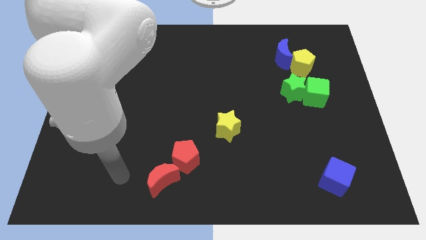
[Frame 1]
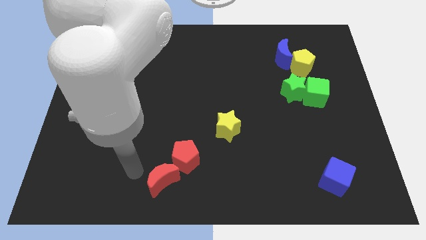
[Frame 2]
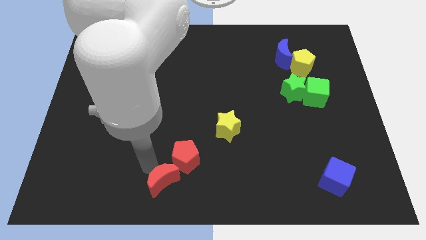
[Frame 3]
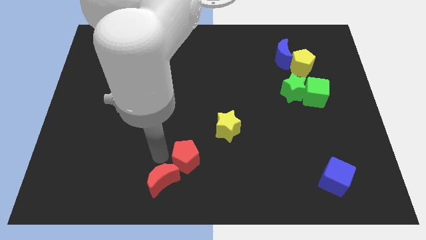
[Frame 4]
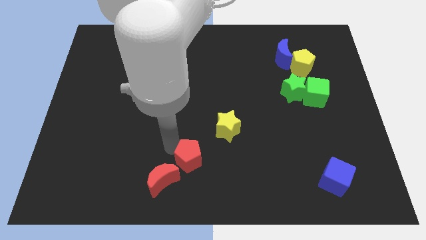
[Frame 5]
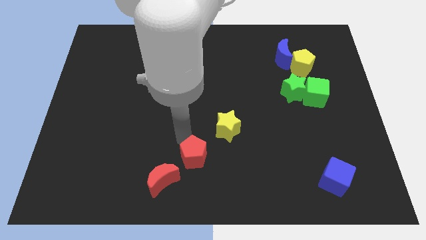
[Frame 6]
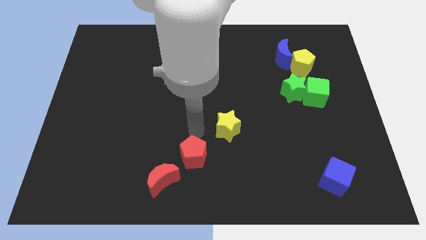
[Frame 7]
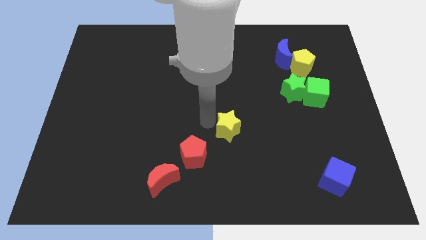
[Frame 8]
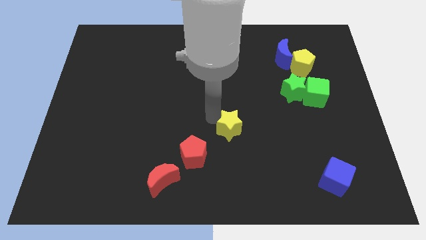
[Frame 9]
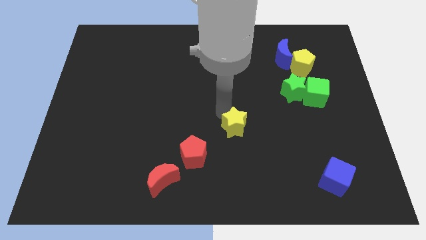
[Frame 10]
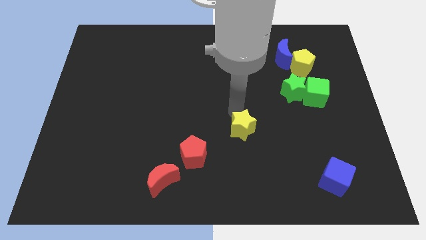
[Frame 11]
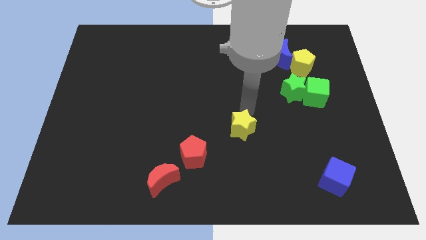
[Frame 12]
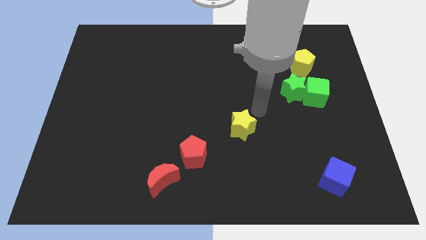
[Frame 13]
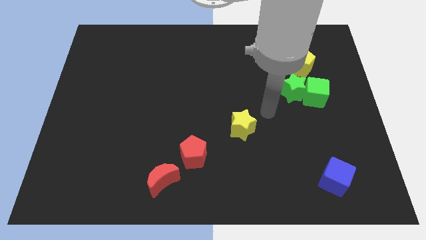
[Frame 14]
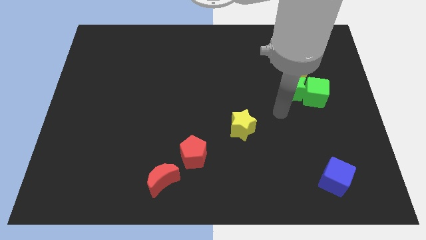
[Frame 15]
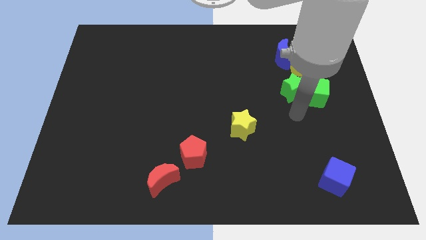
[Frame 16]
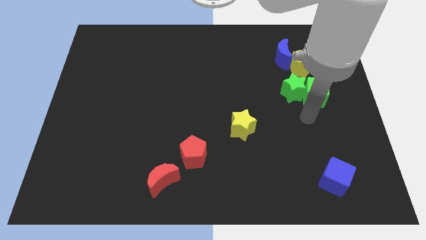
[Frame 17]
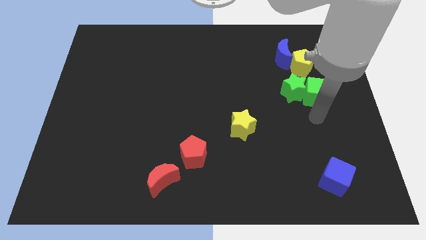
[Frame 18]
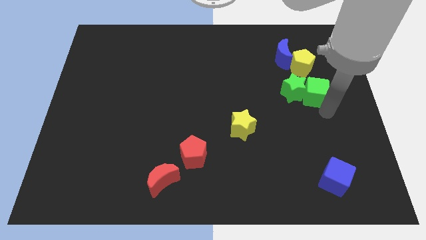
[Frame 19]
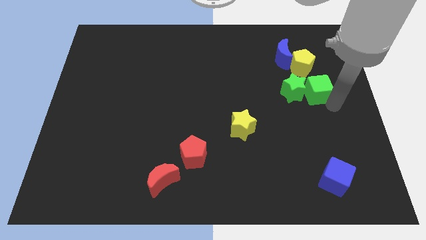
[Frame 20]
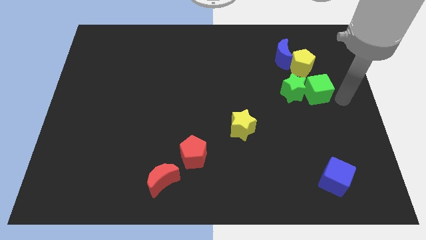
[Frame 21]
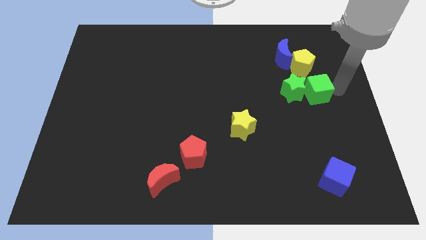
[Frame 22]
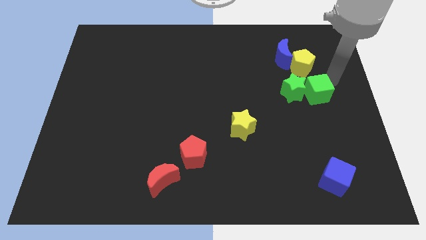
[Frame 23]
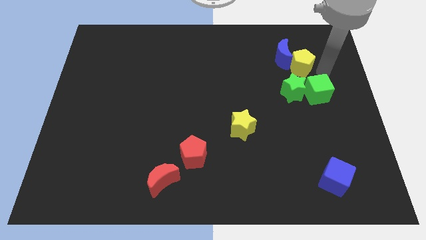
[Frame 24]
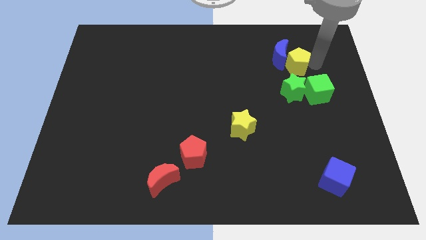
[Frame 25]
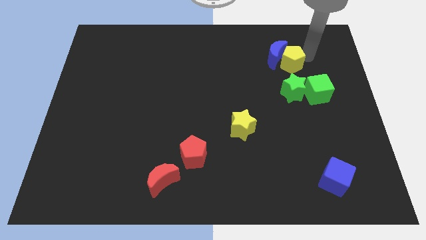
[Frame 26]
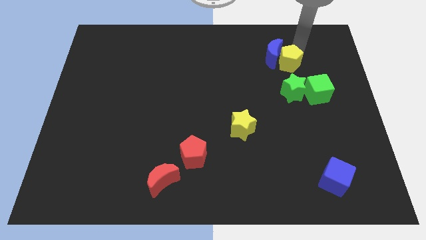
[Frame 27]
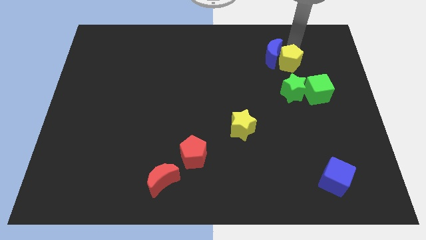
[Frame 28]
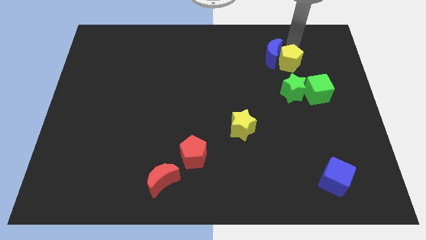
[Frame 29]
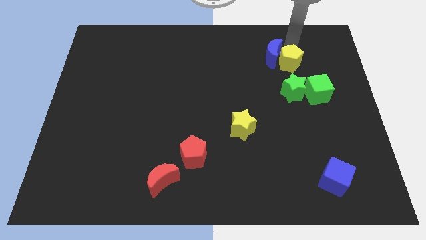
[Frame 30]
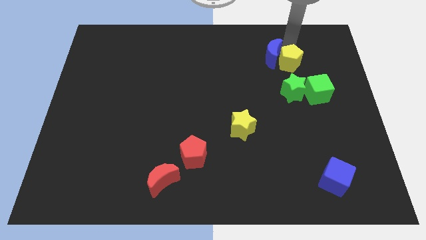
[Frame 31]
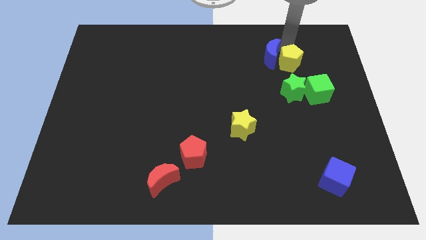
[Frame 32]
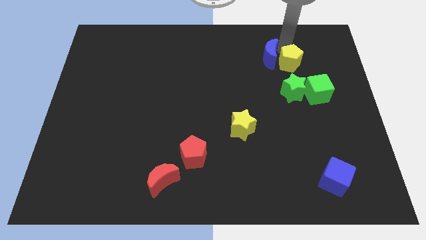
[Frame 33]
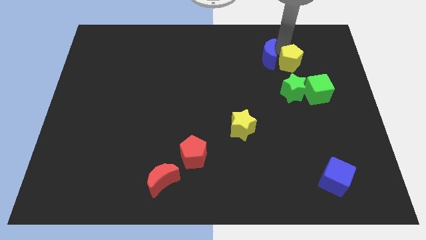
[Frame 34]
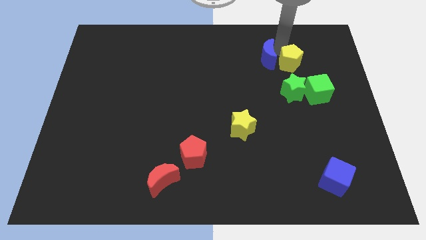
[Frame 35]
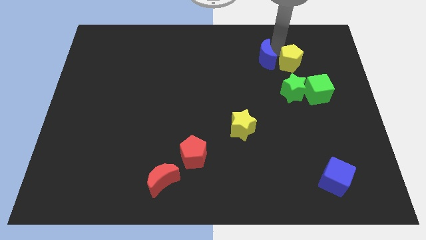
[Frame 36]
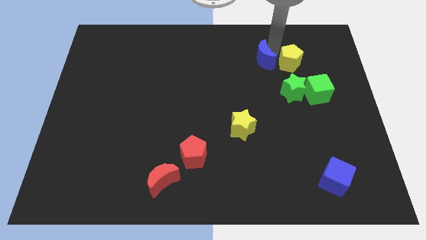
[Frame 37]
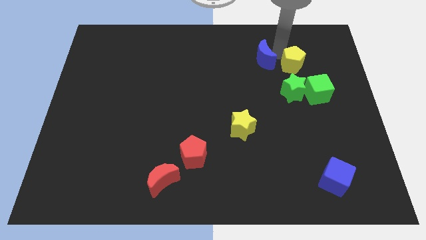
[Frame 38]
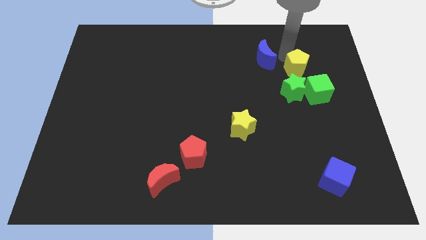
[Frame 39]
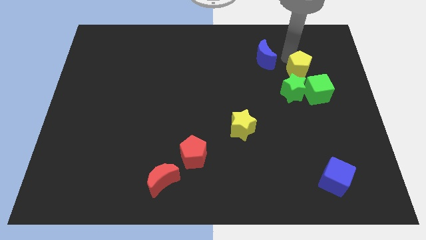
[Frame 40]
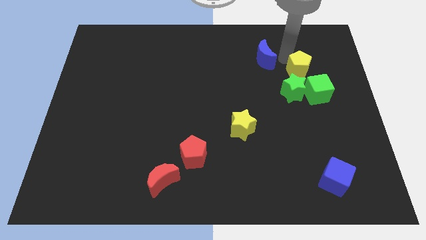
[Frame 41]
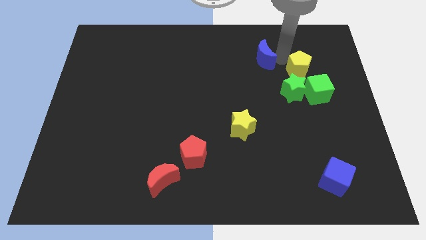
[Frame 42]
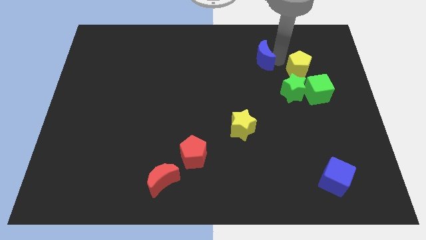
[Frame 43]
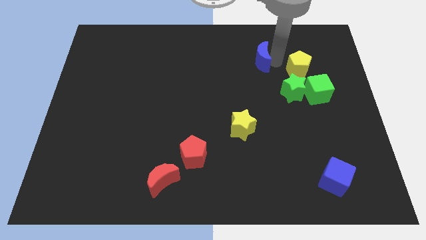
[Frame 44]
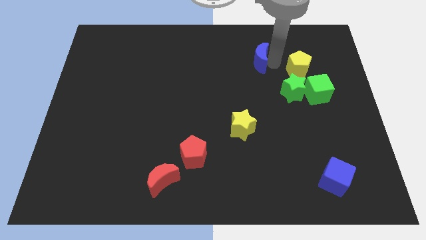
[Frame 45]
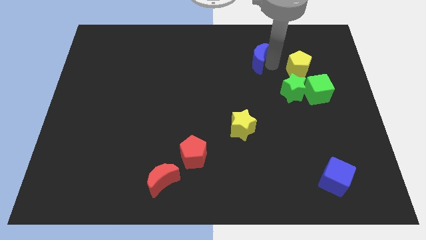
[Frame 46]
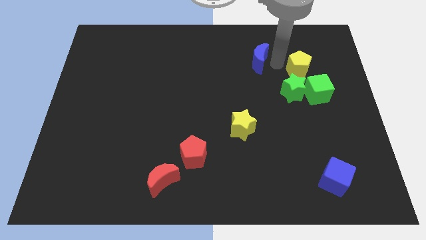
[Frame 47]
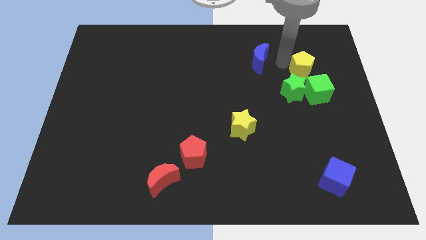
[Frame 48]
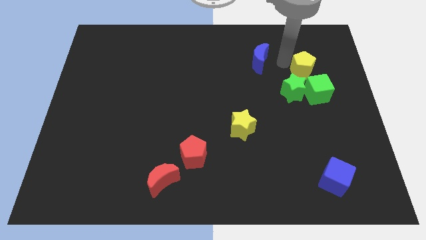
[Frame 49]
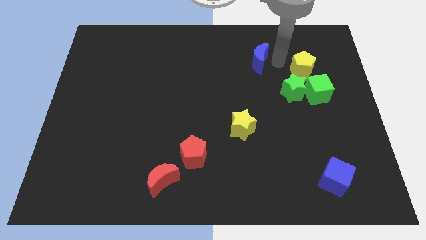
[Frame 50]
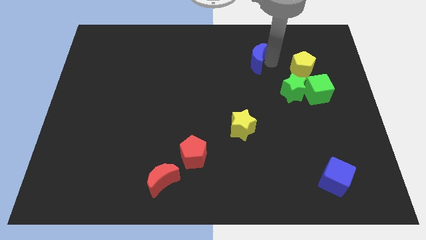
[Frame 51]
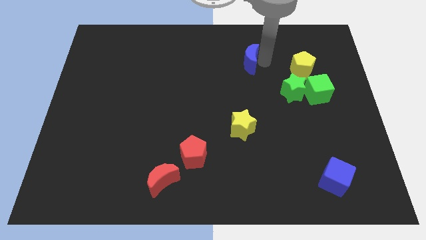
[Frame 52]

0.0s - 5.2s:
slightly push the blue moon left

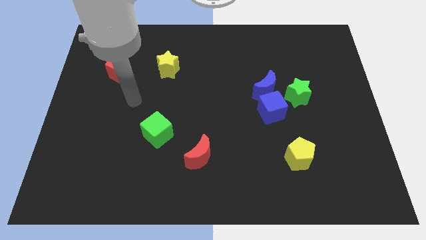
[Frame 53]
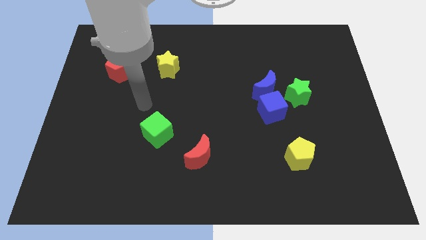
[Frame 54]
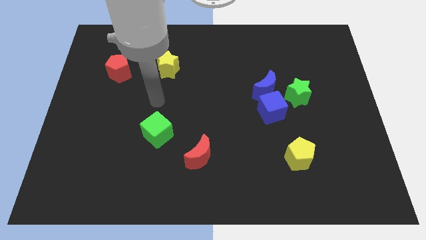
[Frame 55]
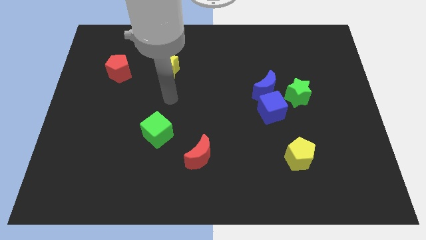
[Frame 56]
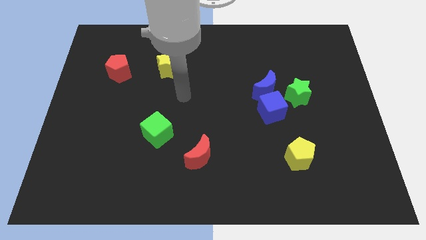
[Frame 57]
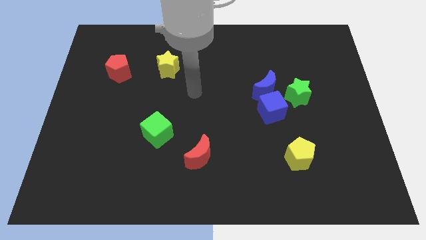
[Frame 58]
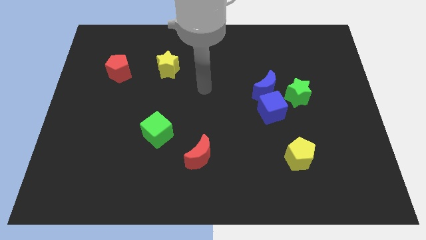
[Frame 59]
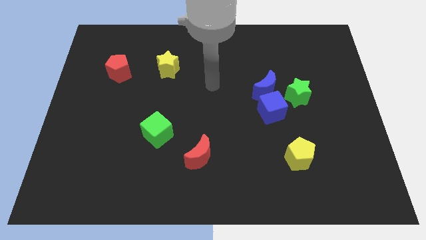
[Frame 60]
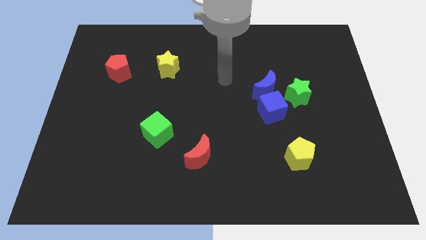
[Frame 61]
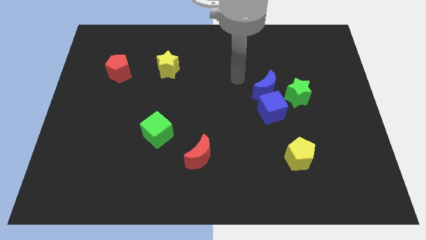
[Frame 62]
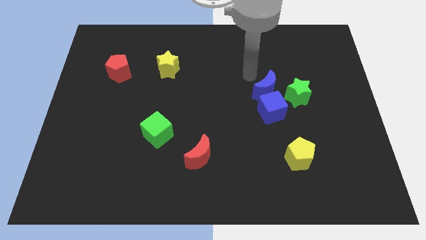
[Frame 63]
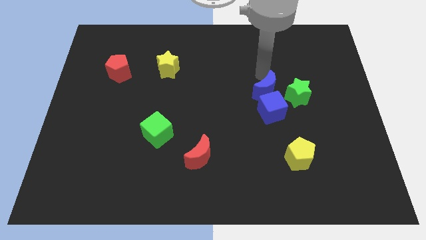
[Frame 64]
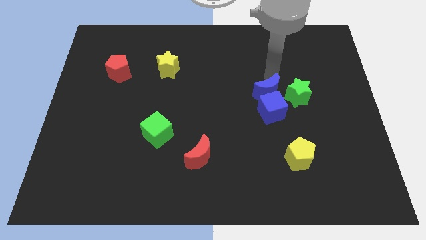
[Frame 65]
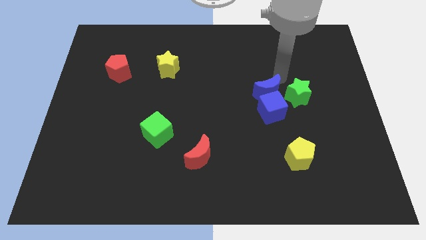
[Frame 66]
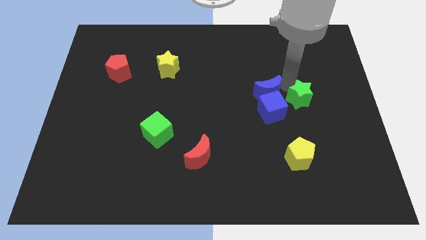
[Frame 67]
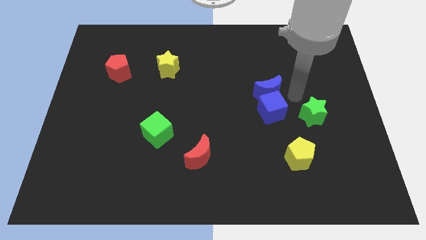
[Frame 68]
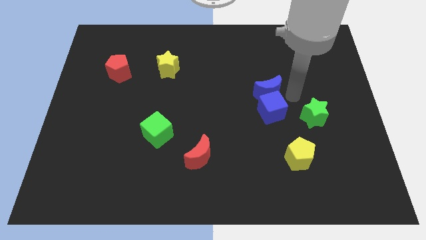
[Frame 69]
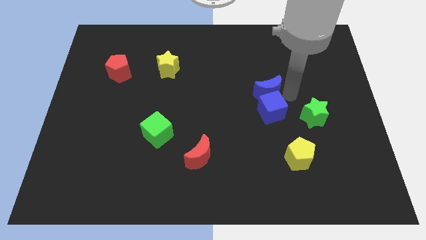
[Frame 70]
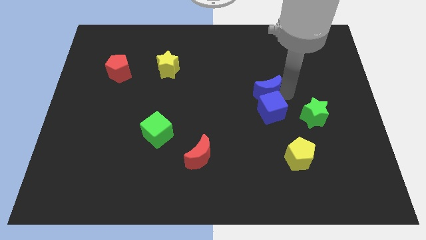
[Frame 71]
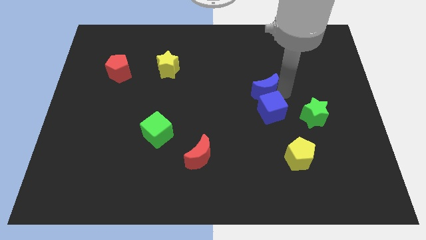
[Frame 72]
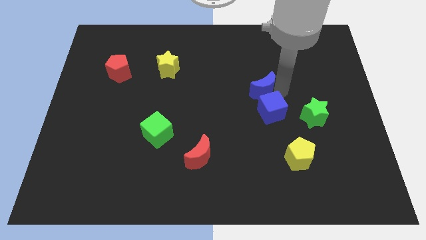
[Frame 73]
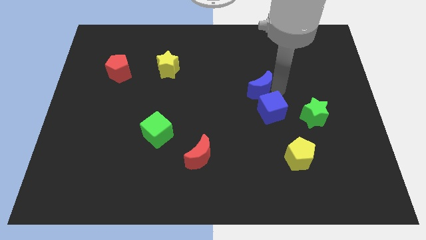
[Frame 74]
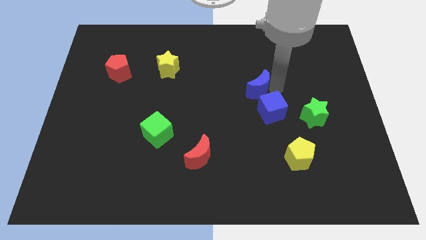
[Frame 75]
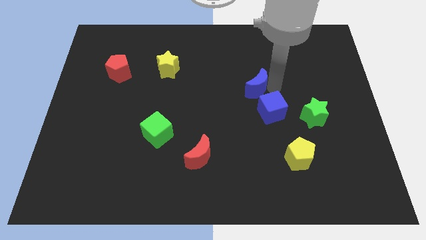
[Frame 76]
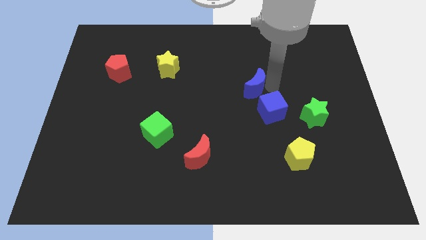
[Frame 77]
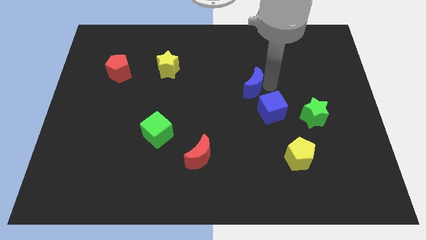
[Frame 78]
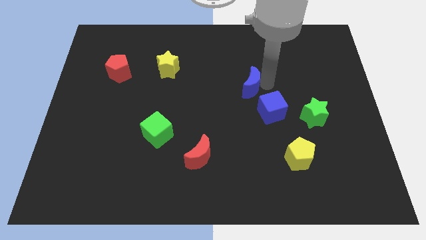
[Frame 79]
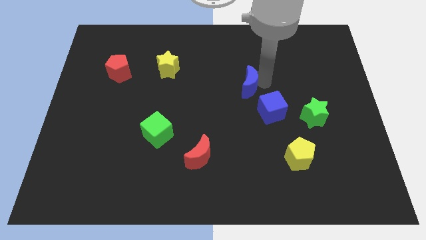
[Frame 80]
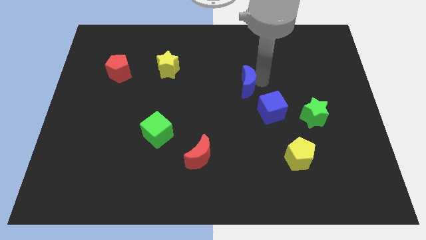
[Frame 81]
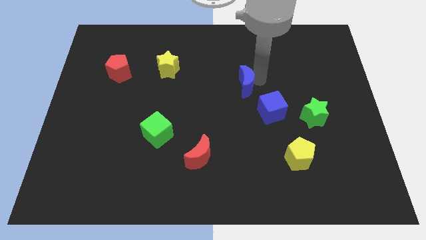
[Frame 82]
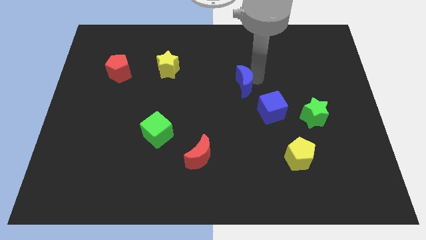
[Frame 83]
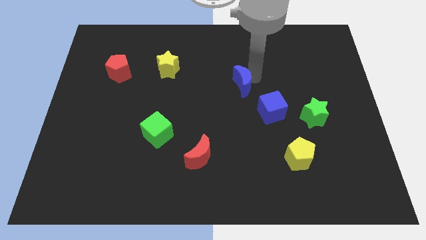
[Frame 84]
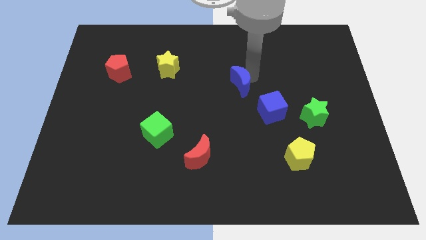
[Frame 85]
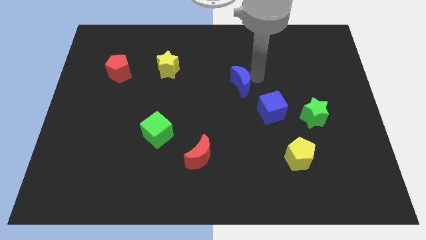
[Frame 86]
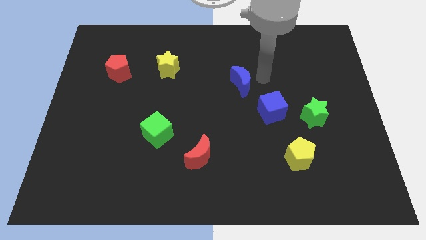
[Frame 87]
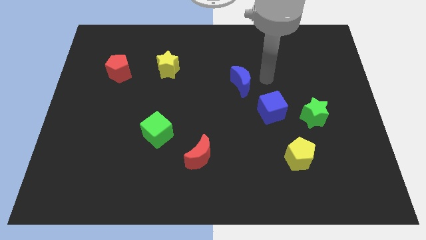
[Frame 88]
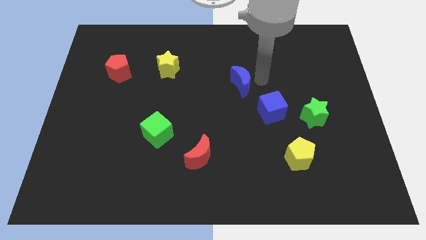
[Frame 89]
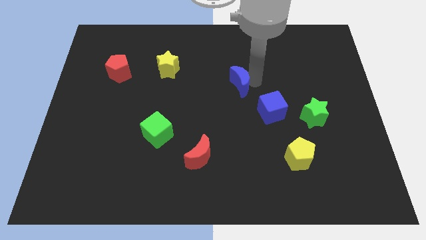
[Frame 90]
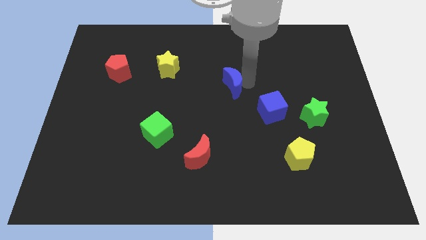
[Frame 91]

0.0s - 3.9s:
slide the blue moon a bit to the left
